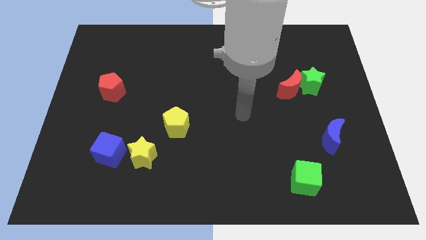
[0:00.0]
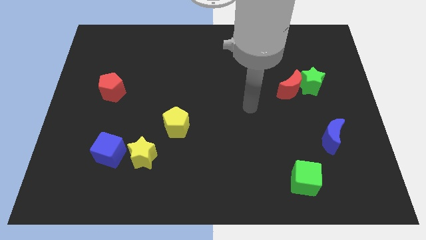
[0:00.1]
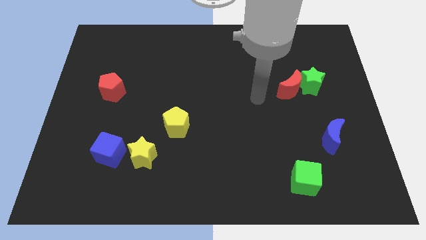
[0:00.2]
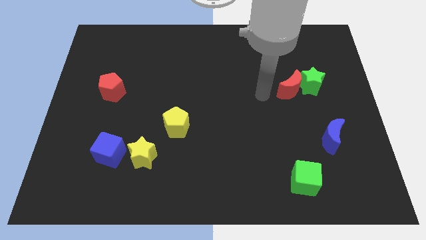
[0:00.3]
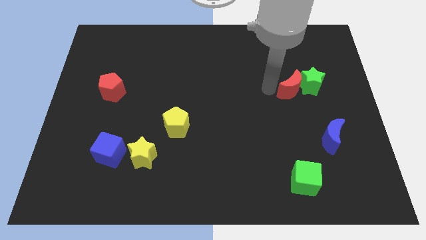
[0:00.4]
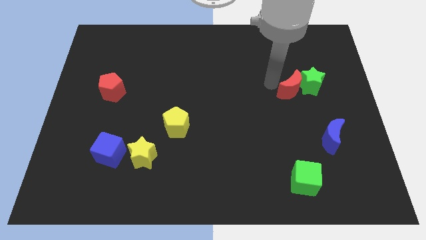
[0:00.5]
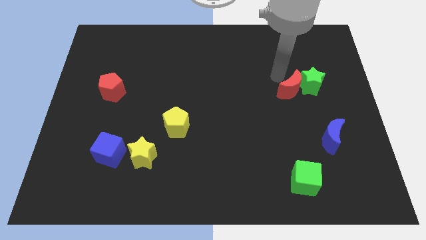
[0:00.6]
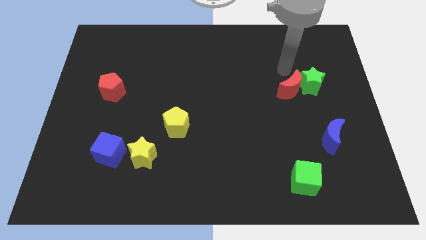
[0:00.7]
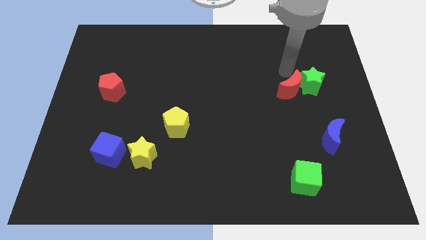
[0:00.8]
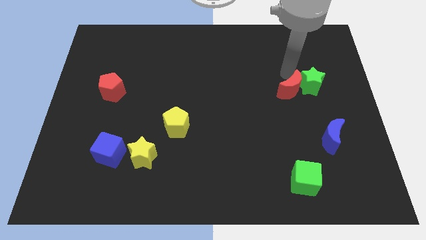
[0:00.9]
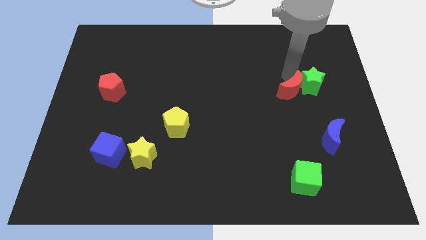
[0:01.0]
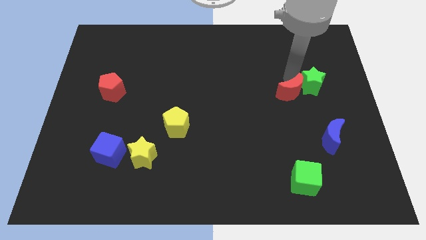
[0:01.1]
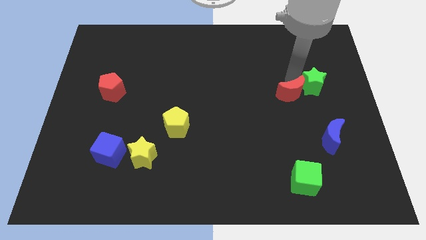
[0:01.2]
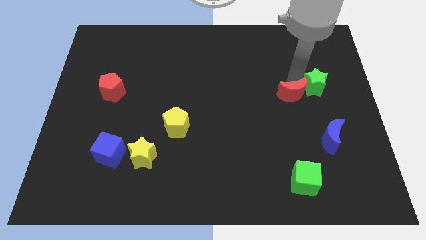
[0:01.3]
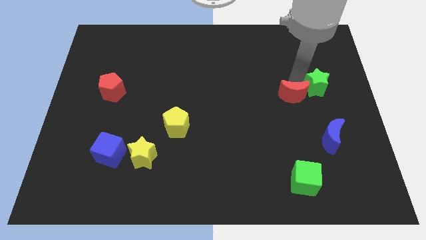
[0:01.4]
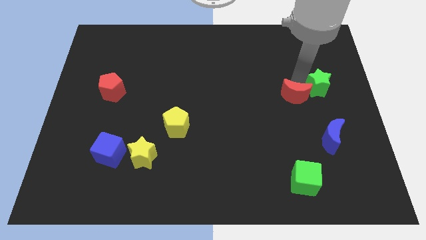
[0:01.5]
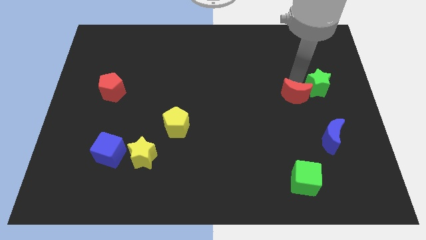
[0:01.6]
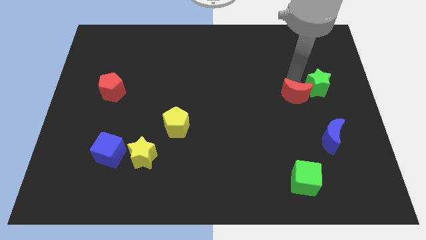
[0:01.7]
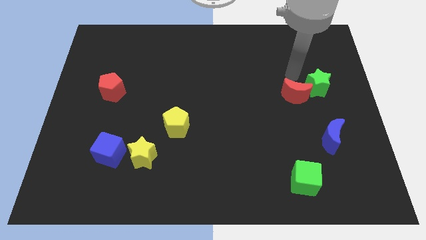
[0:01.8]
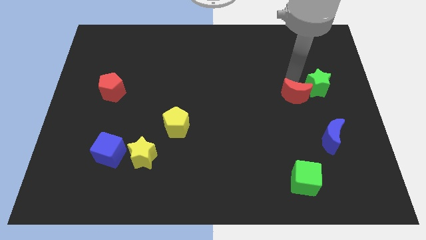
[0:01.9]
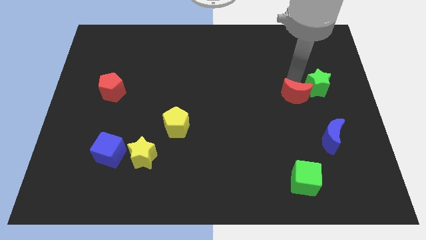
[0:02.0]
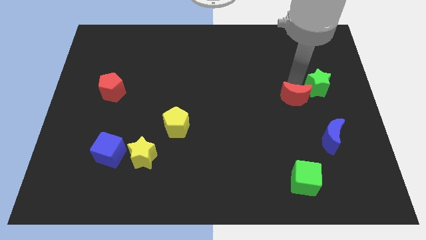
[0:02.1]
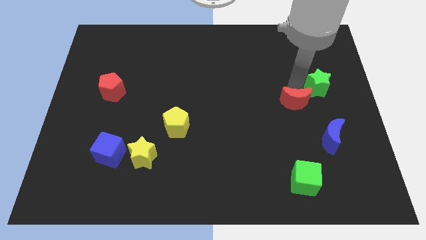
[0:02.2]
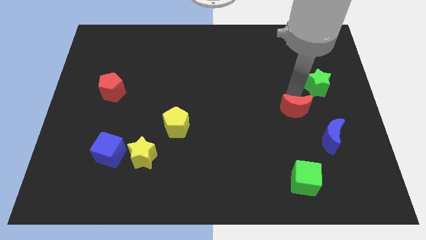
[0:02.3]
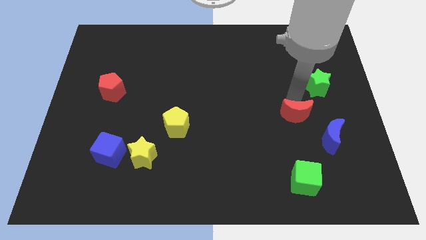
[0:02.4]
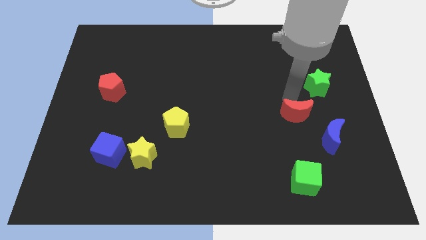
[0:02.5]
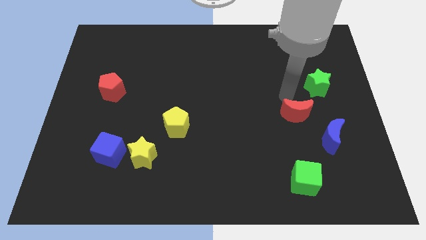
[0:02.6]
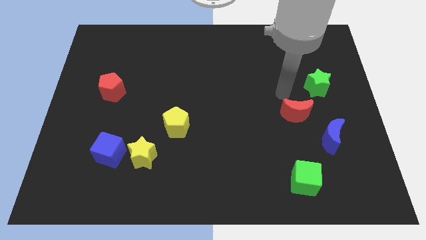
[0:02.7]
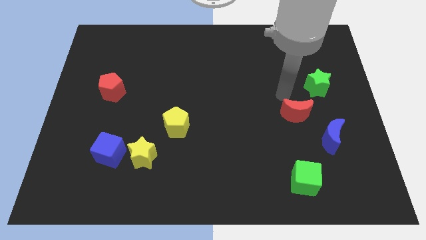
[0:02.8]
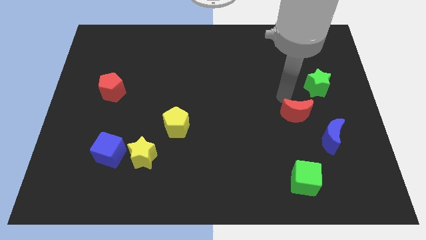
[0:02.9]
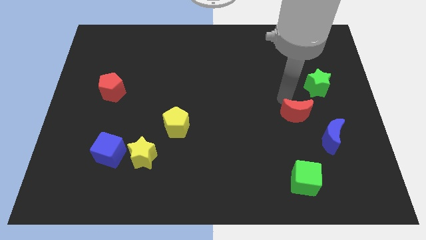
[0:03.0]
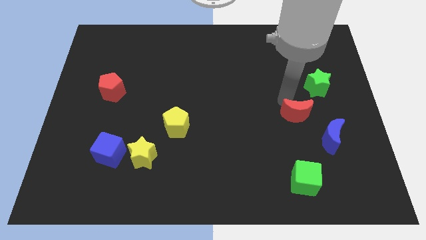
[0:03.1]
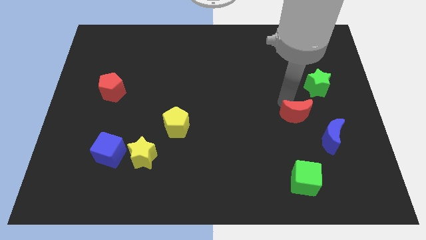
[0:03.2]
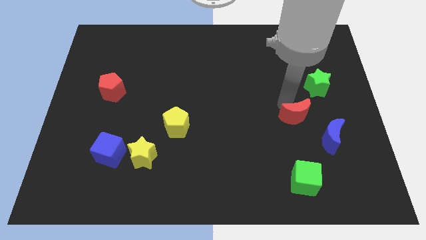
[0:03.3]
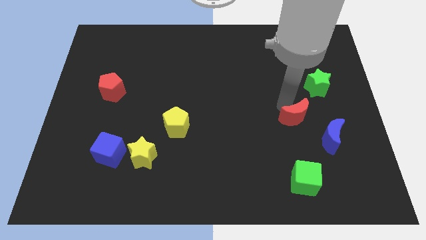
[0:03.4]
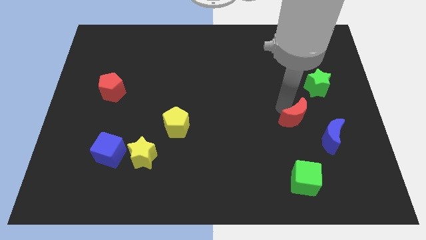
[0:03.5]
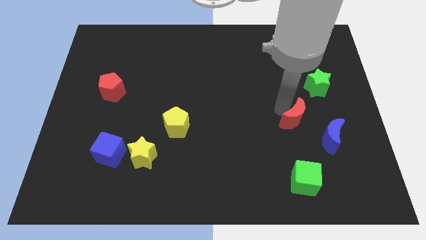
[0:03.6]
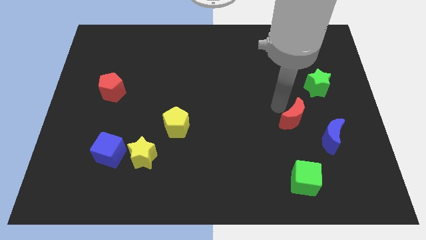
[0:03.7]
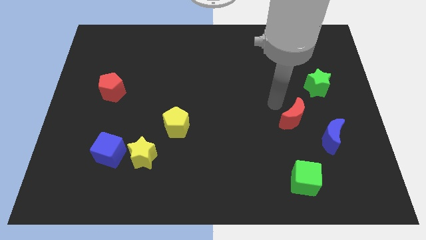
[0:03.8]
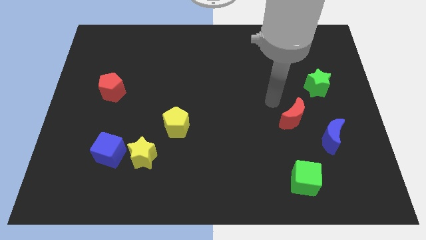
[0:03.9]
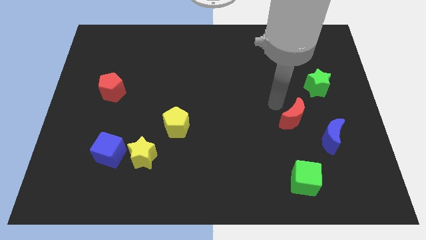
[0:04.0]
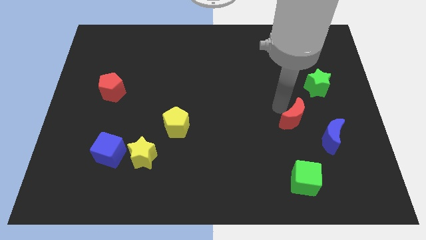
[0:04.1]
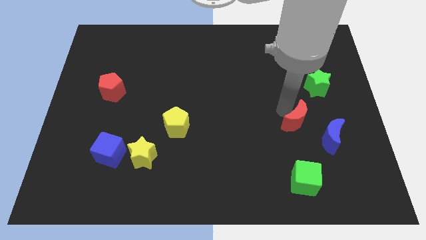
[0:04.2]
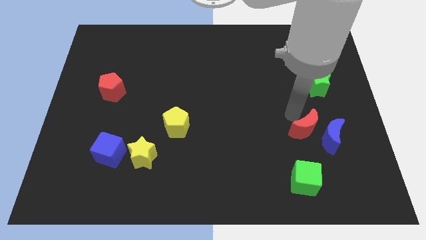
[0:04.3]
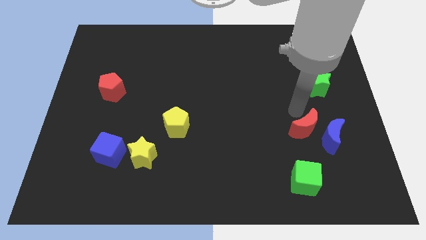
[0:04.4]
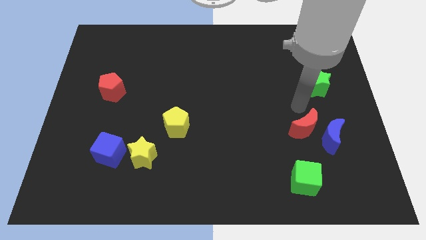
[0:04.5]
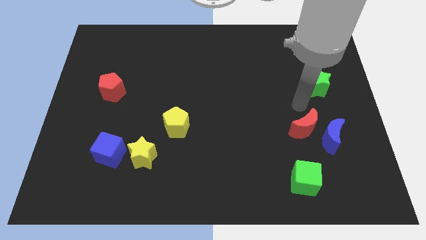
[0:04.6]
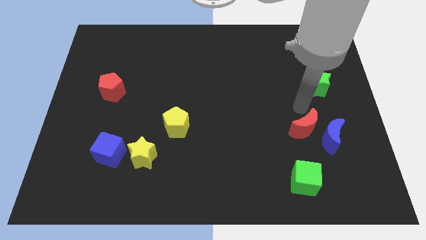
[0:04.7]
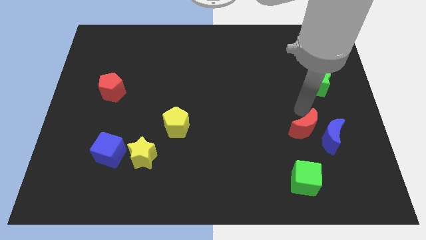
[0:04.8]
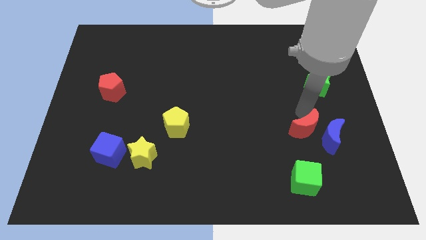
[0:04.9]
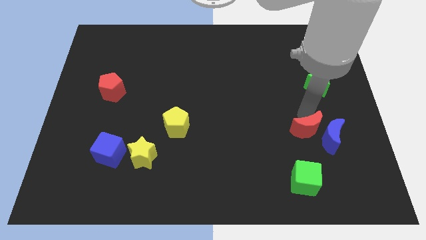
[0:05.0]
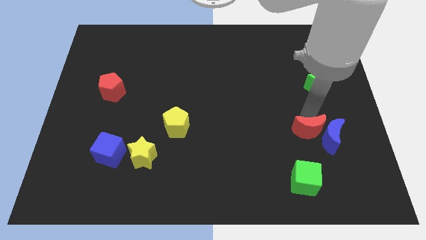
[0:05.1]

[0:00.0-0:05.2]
put the red moon diagonally down and to the left of the blue moon

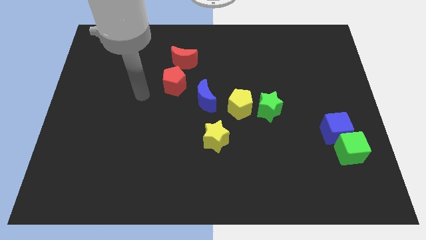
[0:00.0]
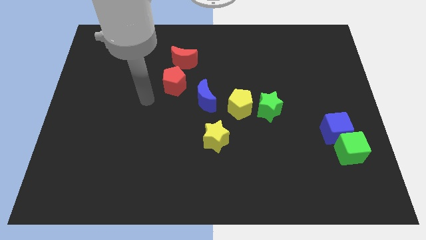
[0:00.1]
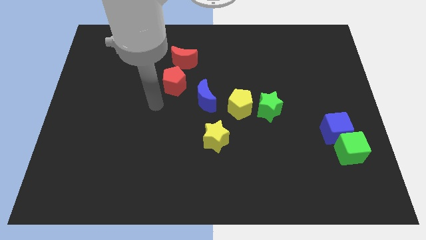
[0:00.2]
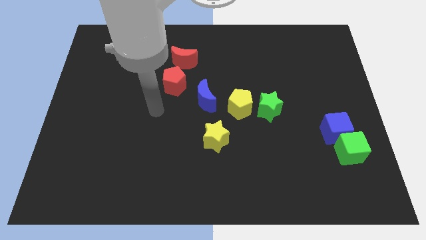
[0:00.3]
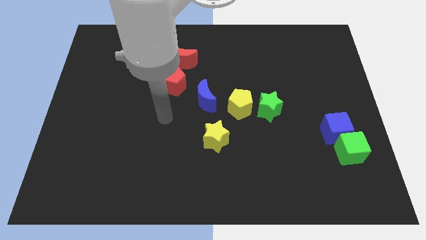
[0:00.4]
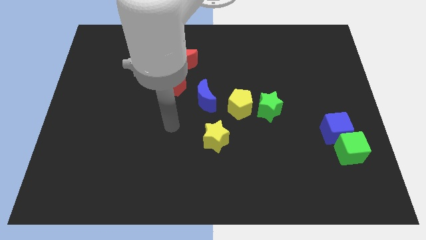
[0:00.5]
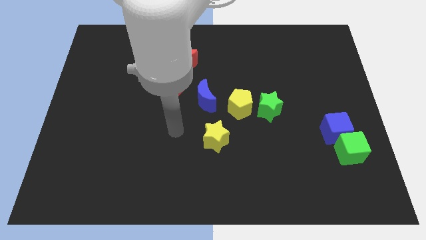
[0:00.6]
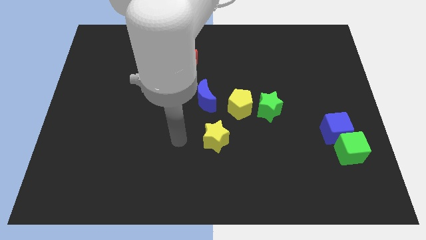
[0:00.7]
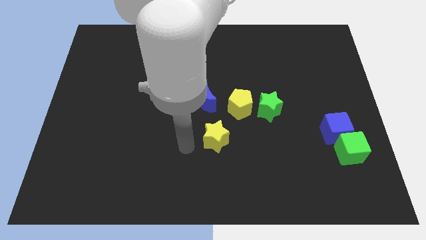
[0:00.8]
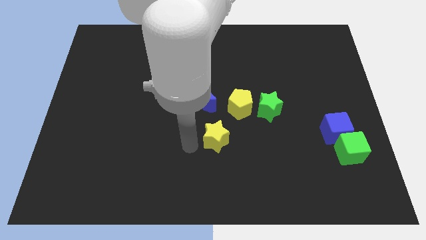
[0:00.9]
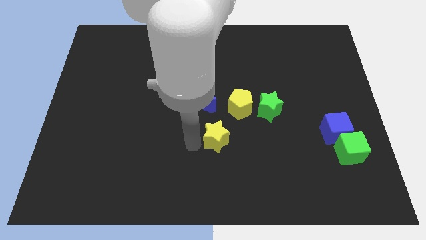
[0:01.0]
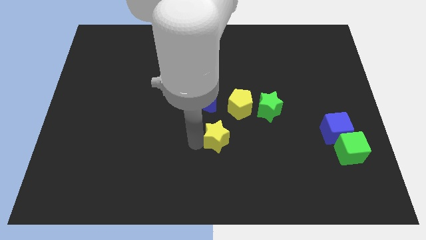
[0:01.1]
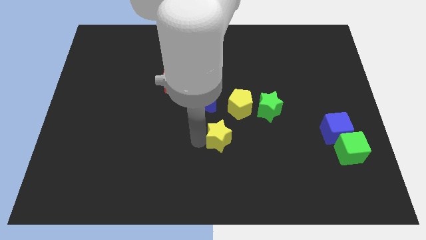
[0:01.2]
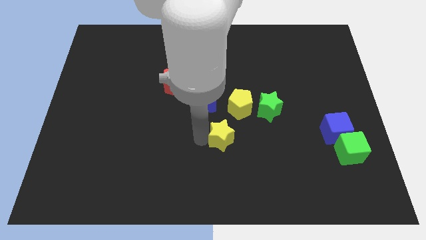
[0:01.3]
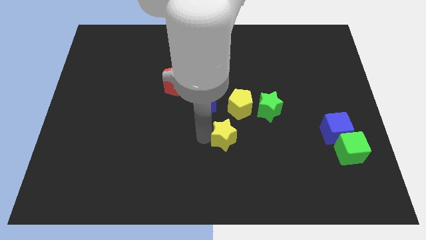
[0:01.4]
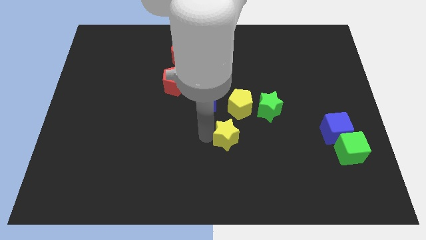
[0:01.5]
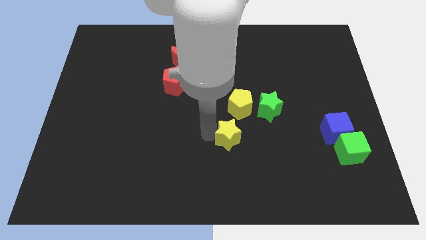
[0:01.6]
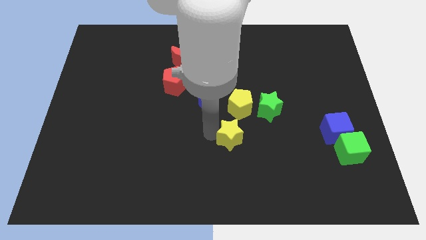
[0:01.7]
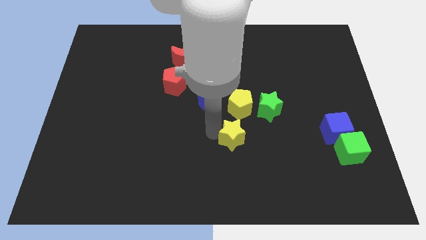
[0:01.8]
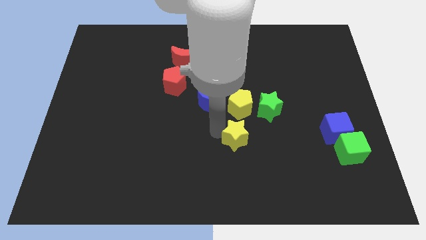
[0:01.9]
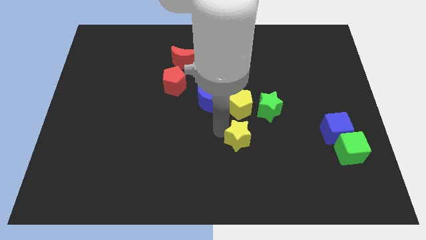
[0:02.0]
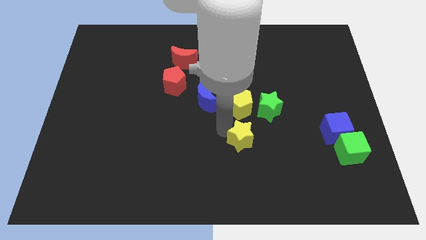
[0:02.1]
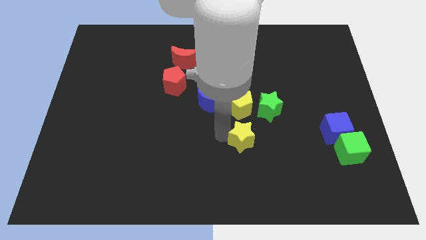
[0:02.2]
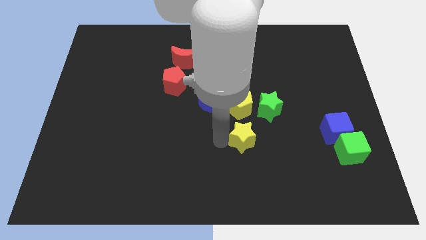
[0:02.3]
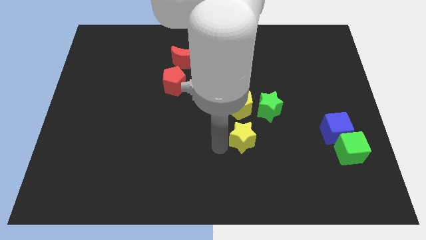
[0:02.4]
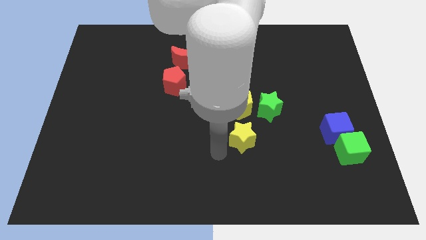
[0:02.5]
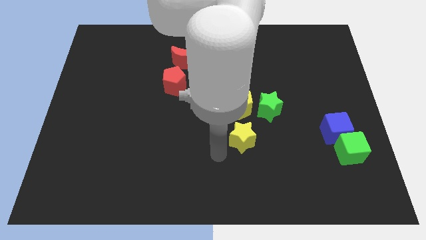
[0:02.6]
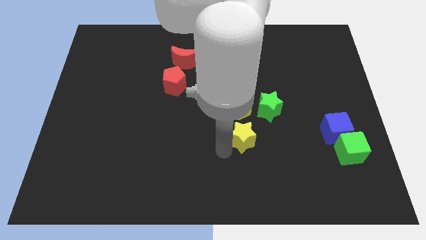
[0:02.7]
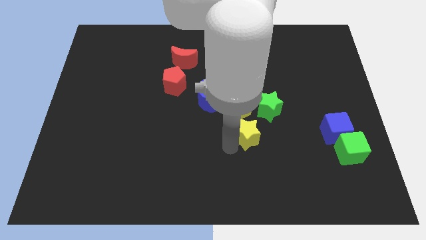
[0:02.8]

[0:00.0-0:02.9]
move the yellow star diagonally down and to the right of the yellow pentagon
